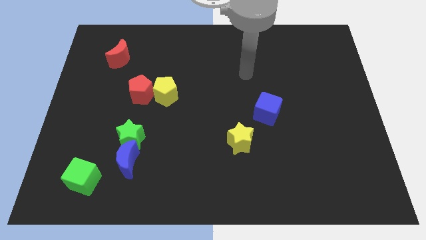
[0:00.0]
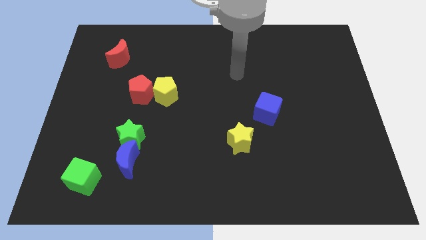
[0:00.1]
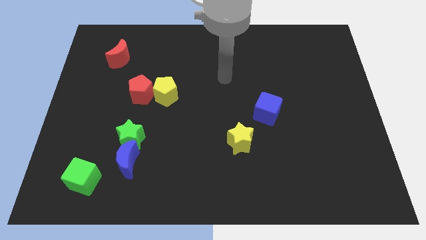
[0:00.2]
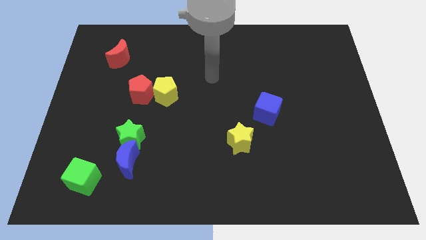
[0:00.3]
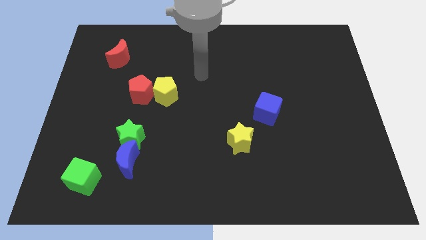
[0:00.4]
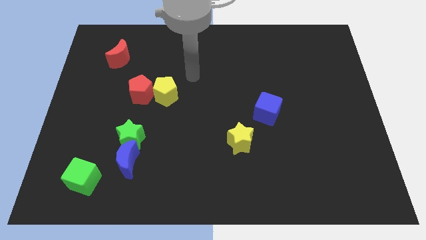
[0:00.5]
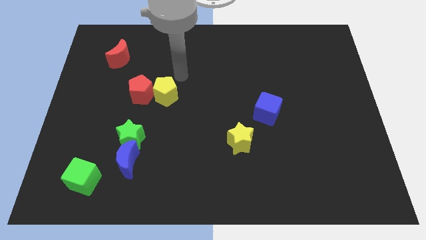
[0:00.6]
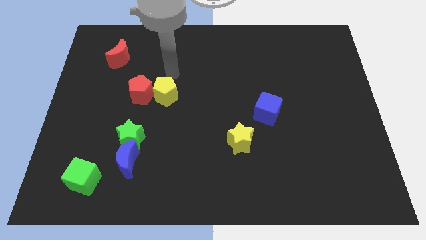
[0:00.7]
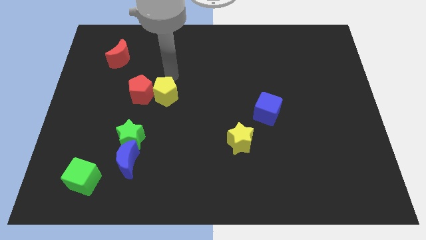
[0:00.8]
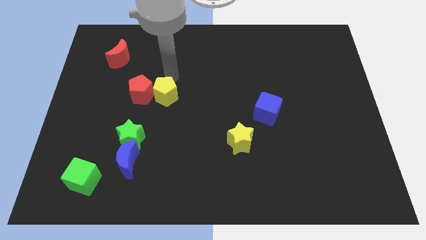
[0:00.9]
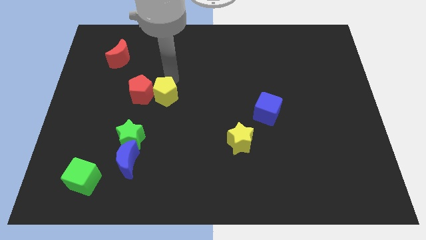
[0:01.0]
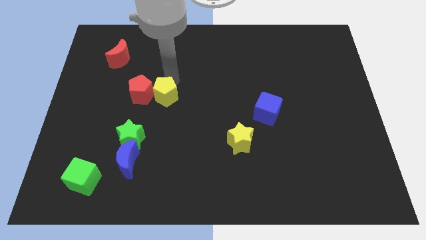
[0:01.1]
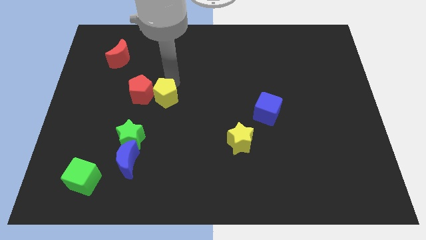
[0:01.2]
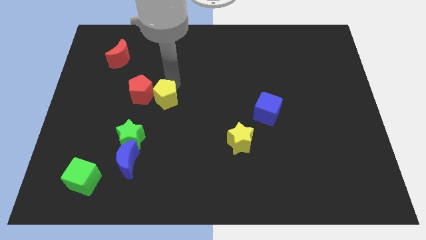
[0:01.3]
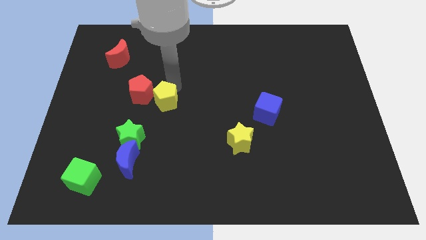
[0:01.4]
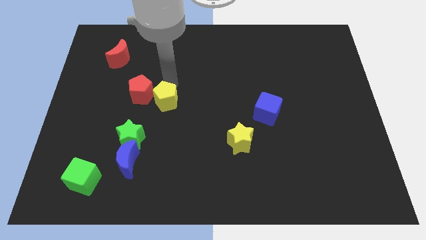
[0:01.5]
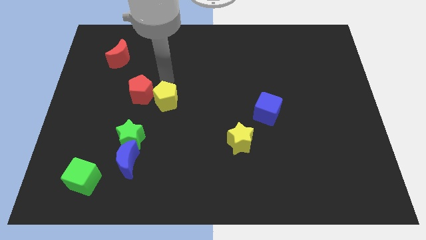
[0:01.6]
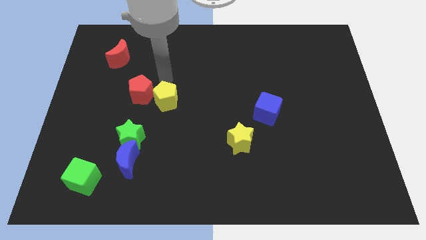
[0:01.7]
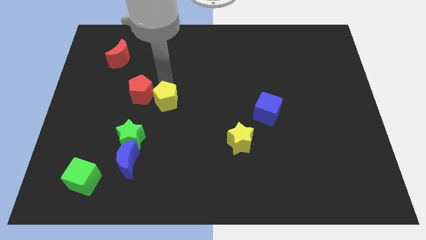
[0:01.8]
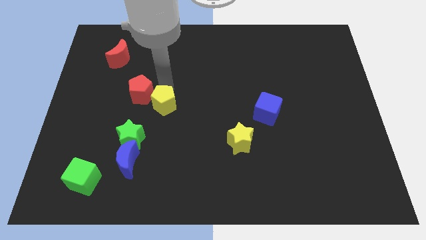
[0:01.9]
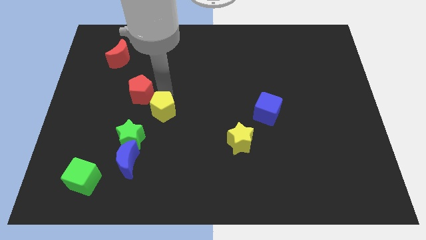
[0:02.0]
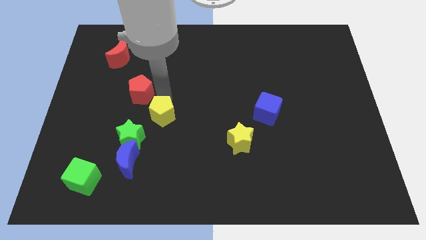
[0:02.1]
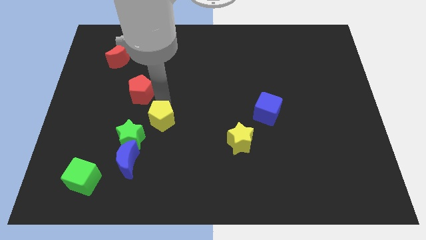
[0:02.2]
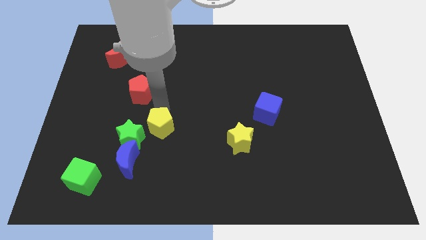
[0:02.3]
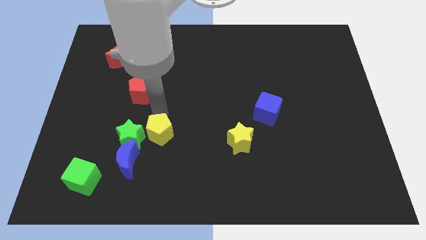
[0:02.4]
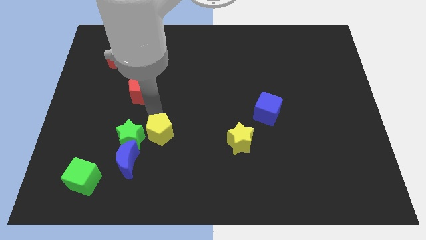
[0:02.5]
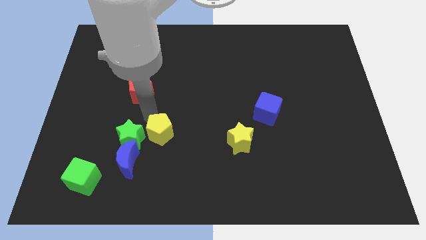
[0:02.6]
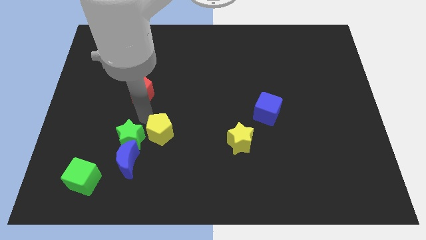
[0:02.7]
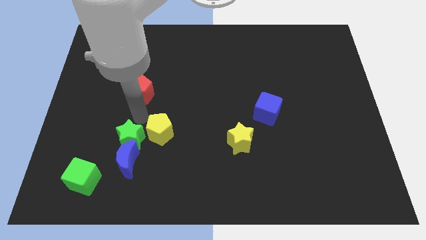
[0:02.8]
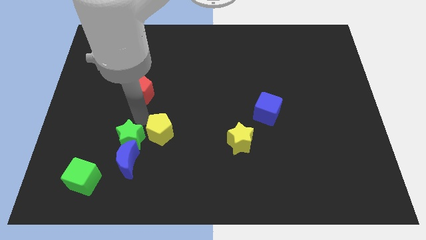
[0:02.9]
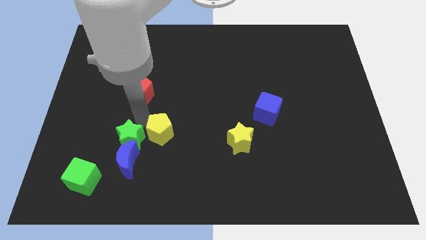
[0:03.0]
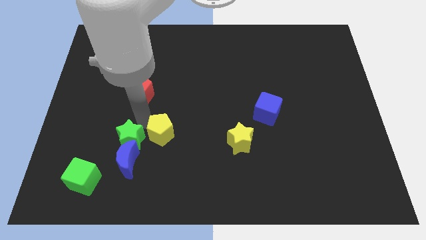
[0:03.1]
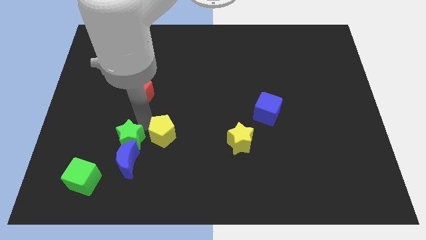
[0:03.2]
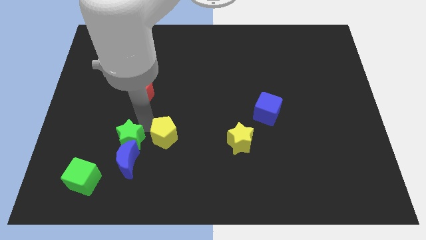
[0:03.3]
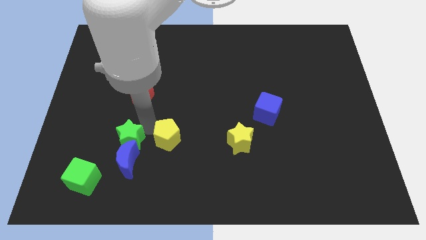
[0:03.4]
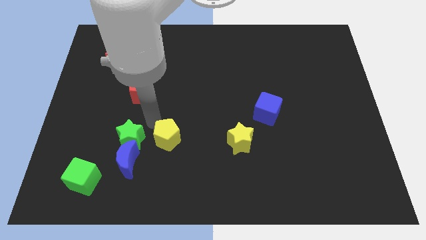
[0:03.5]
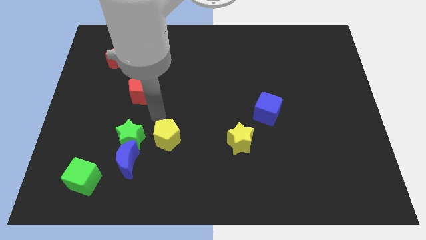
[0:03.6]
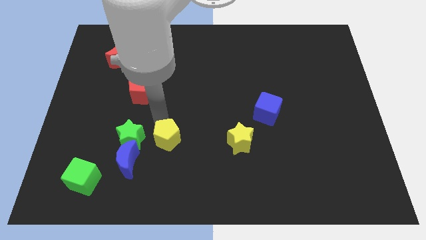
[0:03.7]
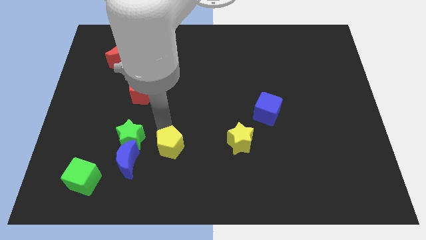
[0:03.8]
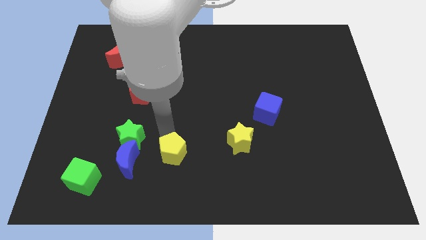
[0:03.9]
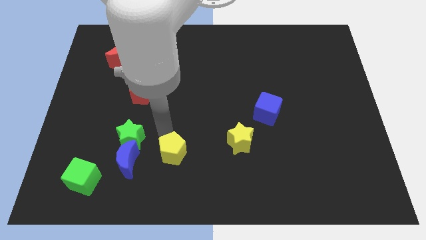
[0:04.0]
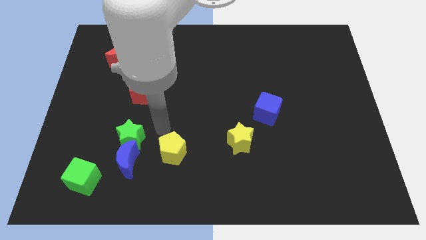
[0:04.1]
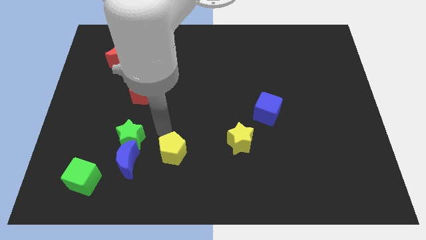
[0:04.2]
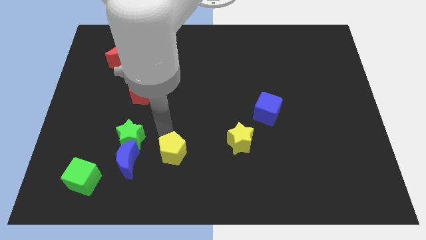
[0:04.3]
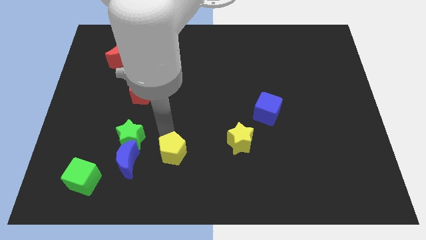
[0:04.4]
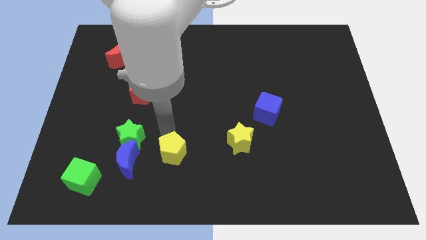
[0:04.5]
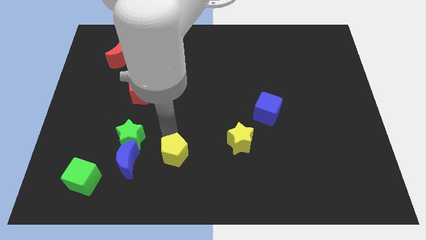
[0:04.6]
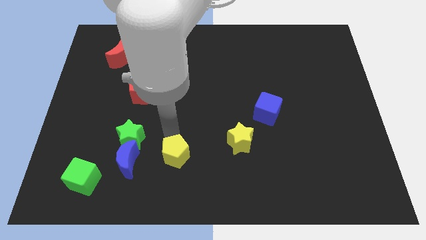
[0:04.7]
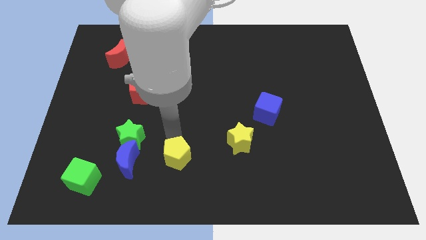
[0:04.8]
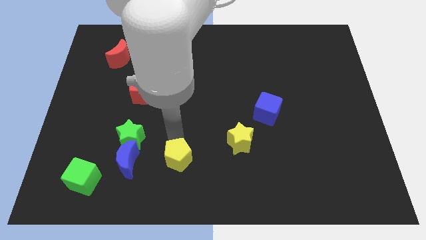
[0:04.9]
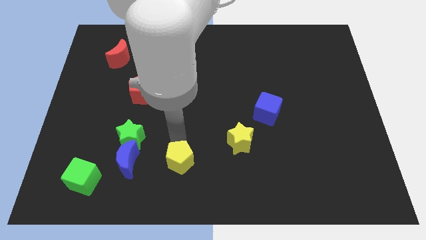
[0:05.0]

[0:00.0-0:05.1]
put the yellow pentagon to the bottom
